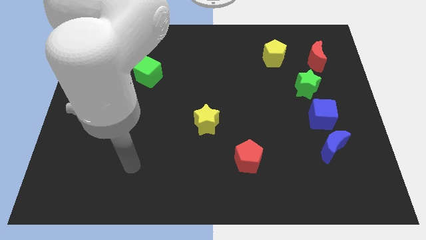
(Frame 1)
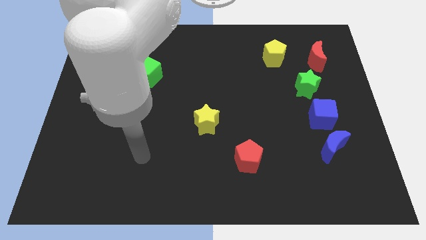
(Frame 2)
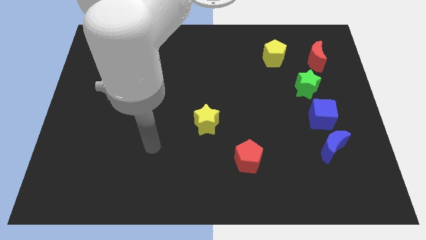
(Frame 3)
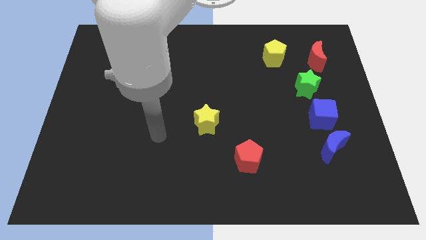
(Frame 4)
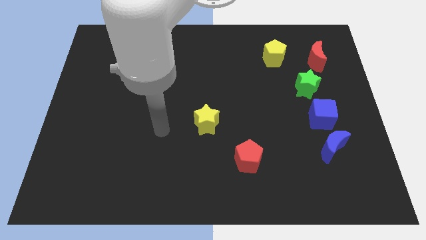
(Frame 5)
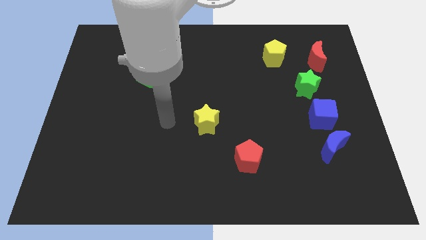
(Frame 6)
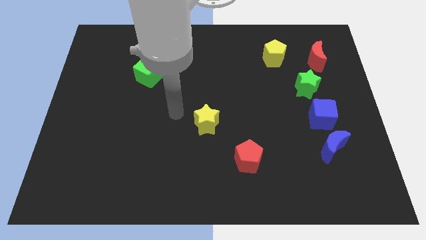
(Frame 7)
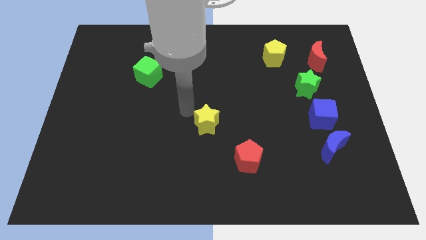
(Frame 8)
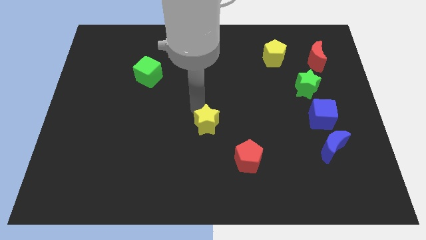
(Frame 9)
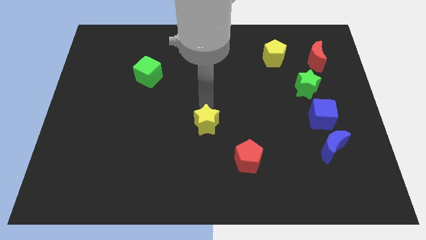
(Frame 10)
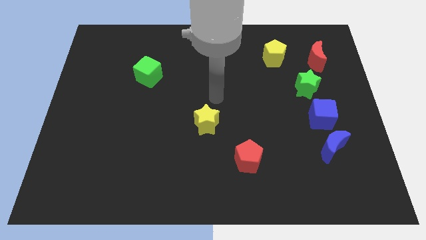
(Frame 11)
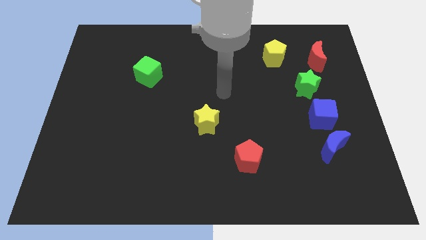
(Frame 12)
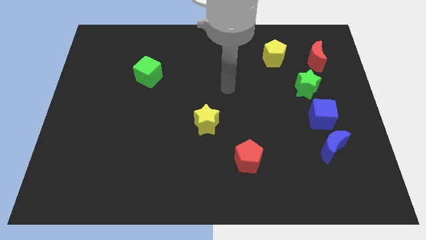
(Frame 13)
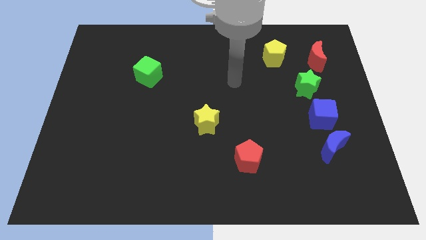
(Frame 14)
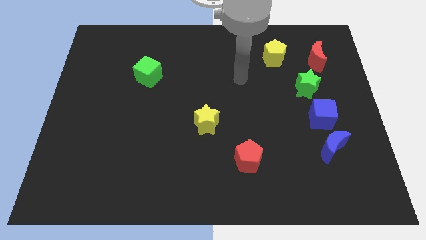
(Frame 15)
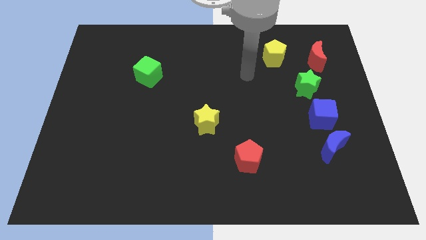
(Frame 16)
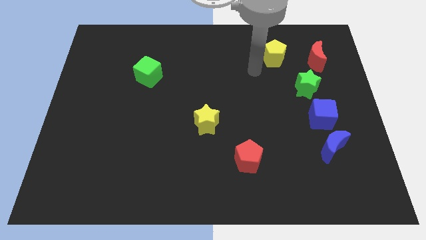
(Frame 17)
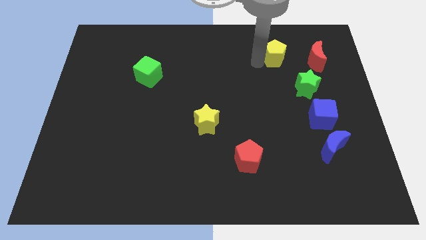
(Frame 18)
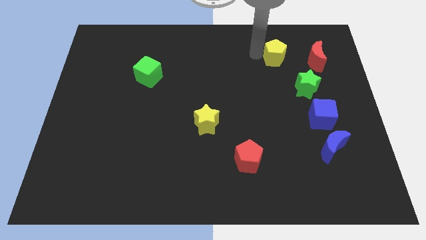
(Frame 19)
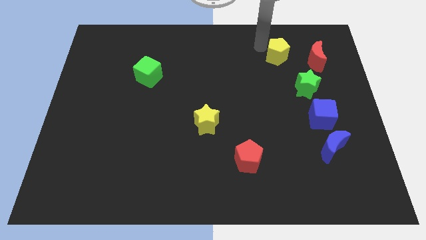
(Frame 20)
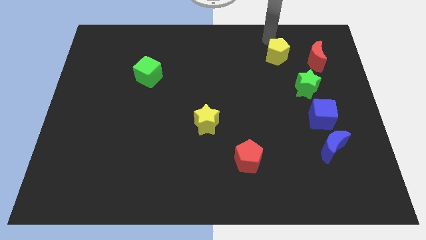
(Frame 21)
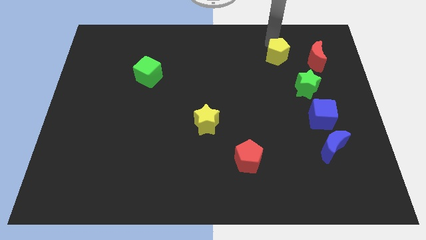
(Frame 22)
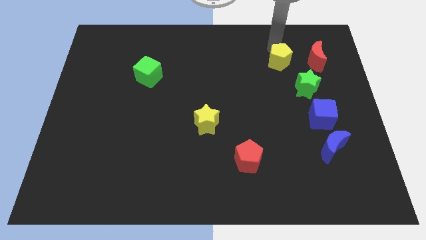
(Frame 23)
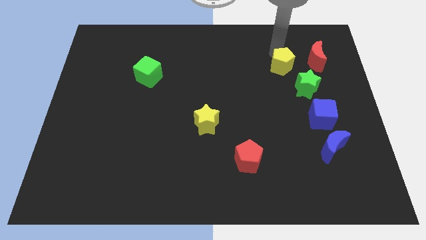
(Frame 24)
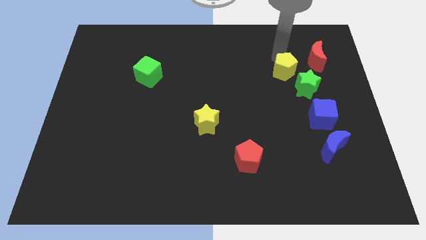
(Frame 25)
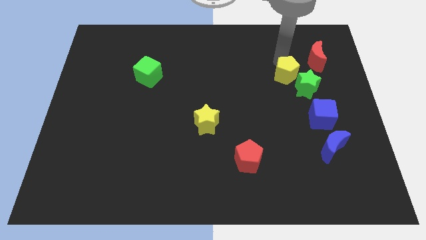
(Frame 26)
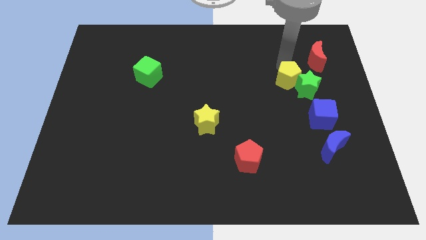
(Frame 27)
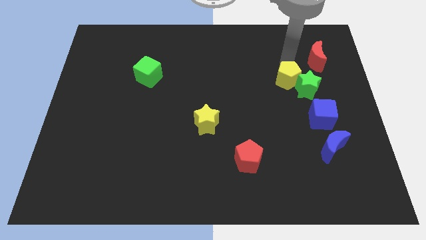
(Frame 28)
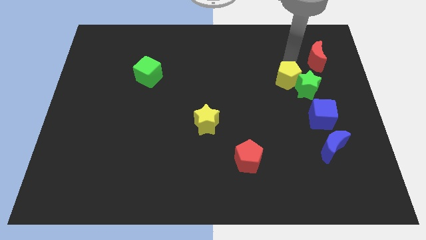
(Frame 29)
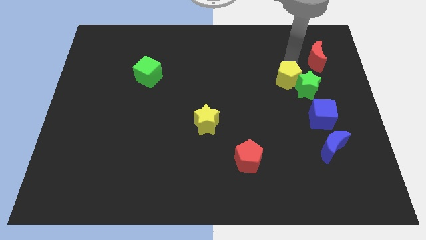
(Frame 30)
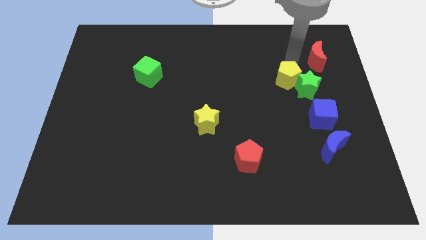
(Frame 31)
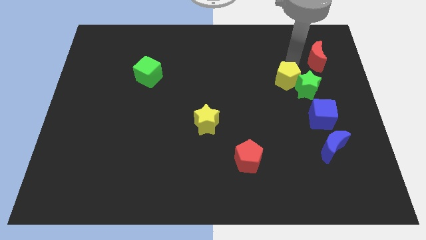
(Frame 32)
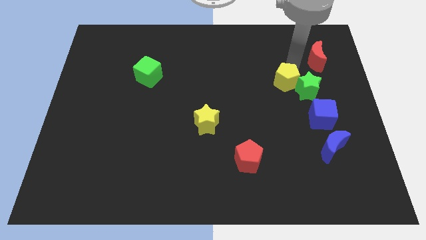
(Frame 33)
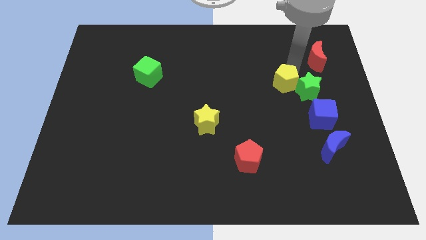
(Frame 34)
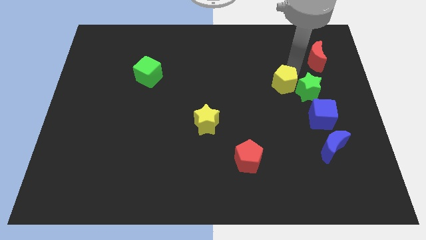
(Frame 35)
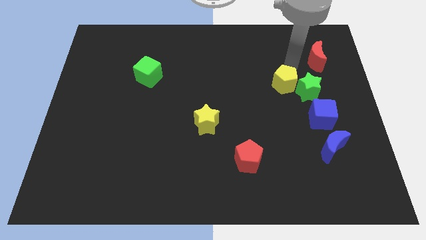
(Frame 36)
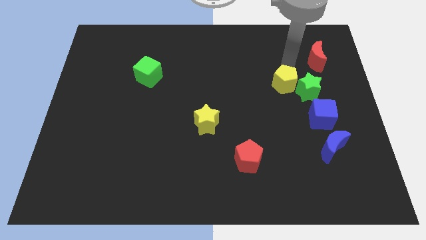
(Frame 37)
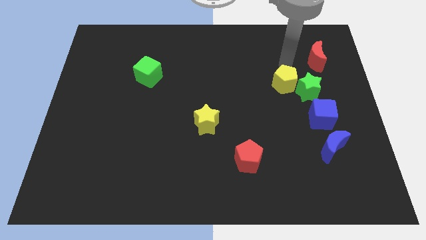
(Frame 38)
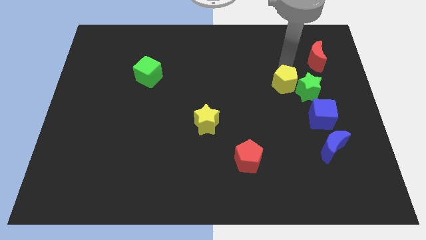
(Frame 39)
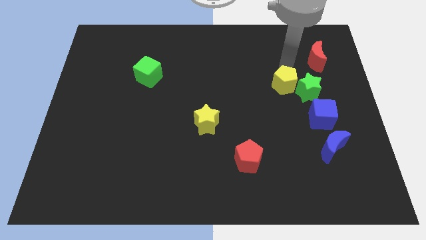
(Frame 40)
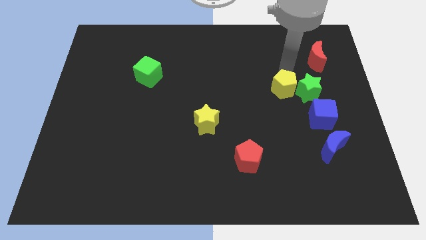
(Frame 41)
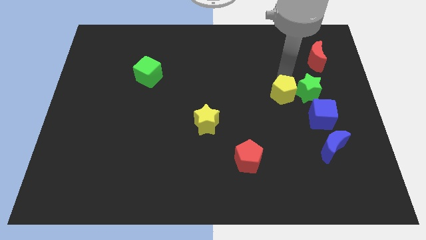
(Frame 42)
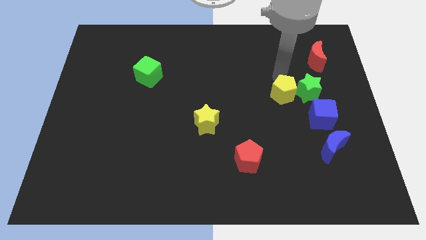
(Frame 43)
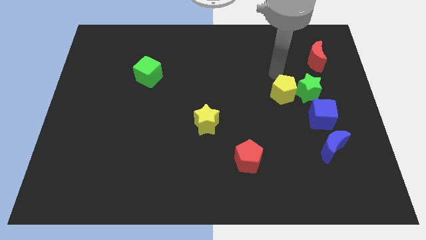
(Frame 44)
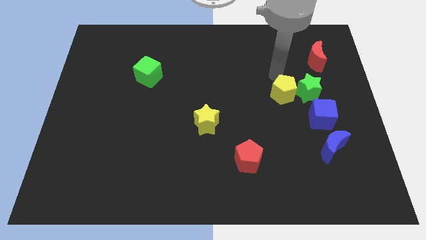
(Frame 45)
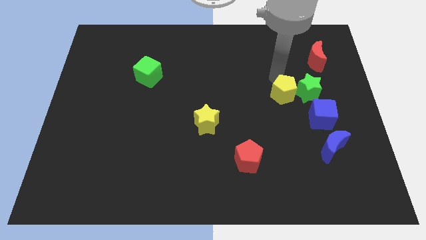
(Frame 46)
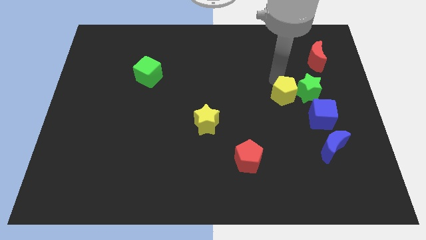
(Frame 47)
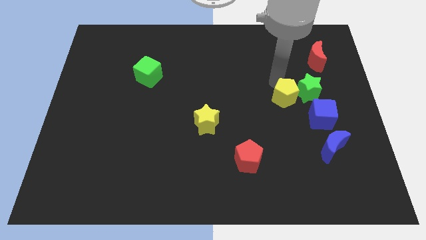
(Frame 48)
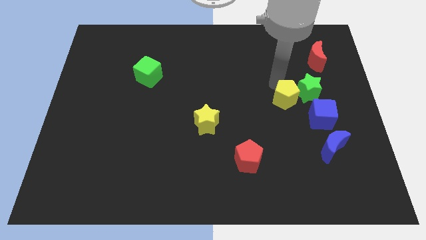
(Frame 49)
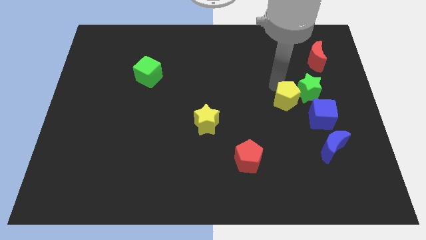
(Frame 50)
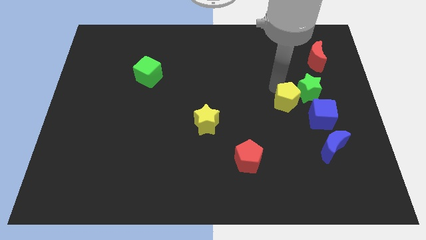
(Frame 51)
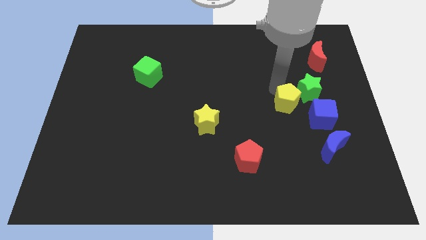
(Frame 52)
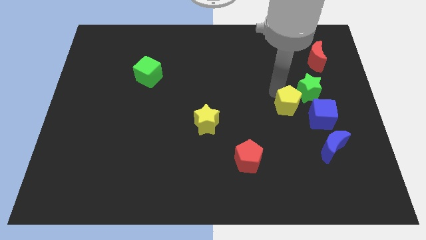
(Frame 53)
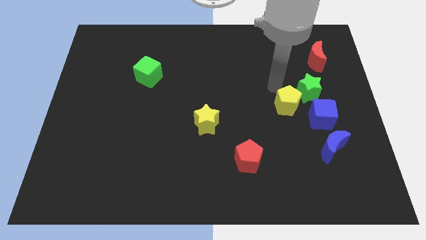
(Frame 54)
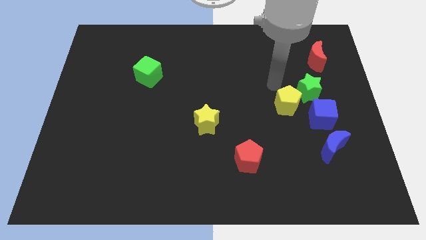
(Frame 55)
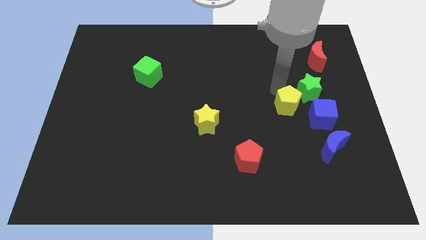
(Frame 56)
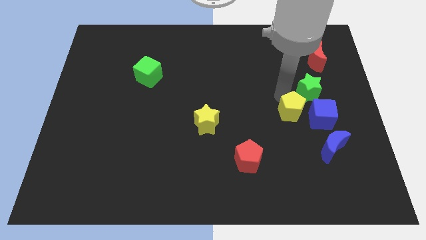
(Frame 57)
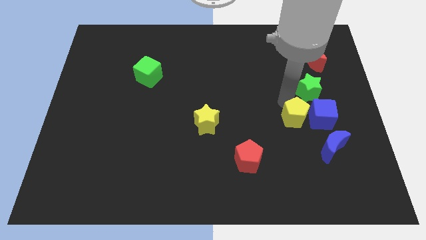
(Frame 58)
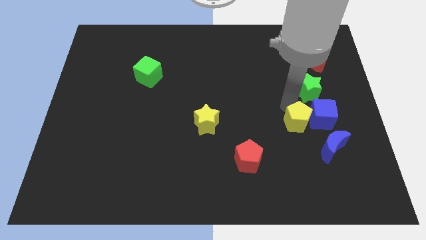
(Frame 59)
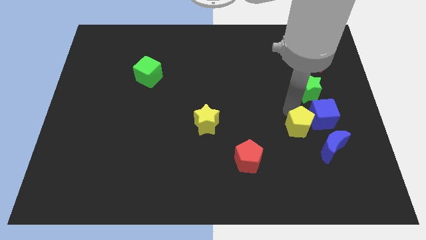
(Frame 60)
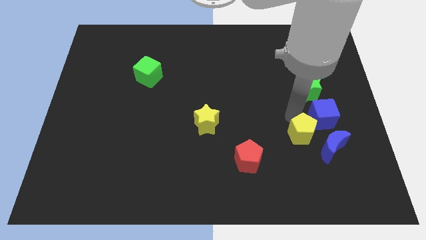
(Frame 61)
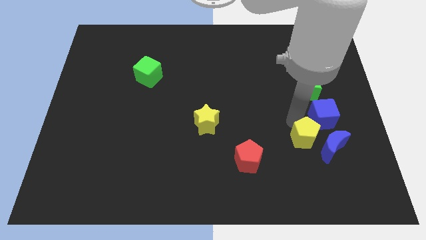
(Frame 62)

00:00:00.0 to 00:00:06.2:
move the yellow pentagon towards the blue moon
